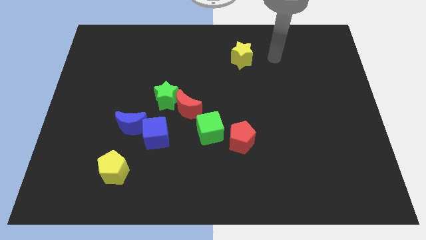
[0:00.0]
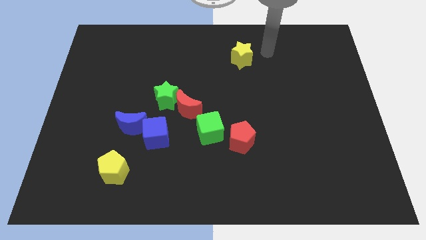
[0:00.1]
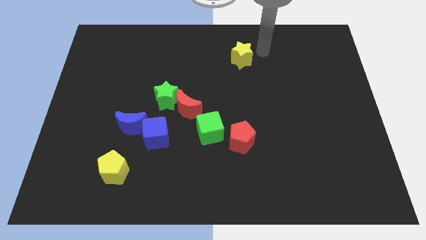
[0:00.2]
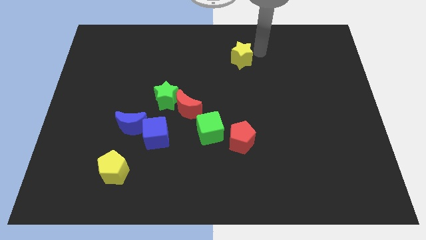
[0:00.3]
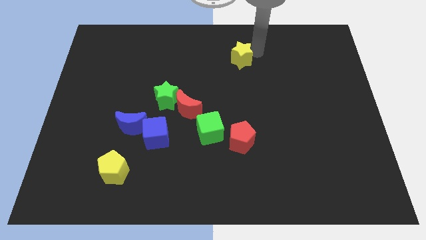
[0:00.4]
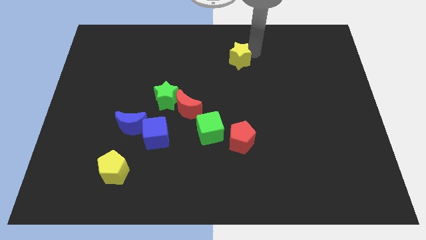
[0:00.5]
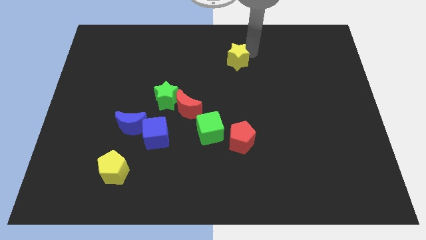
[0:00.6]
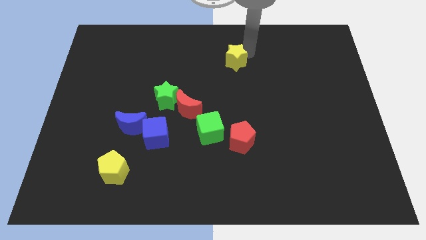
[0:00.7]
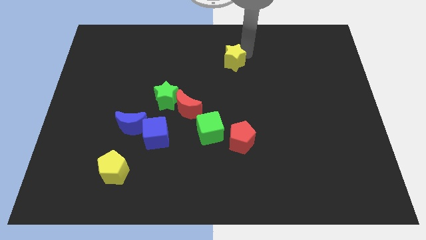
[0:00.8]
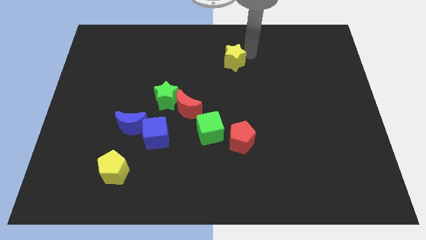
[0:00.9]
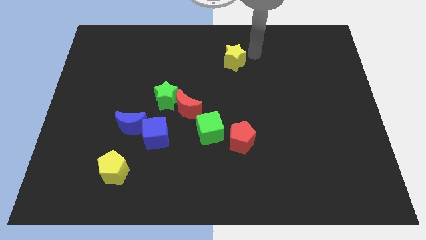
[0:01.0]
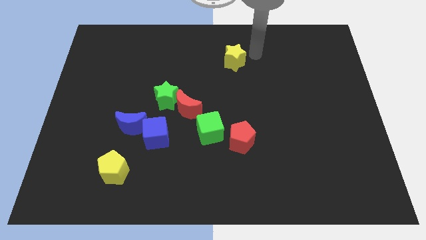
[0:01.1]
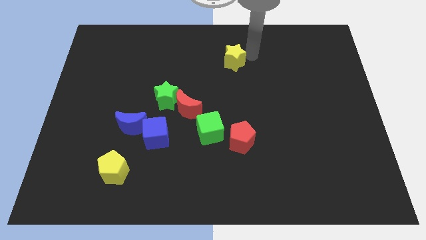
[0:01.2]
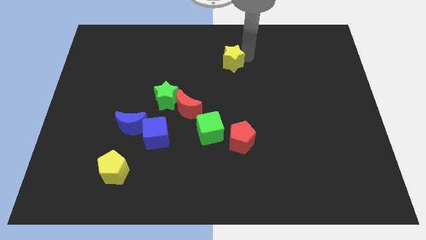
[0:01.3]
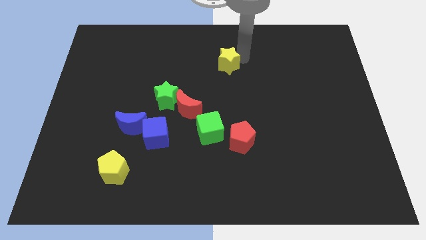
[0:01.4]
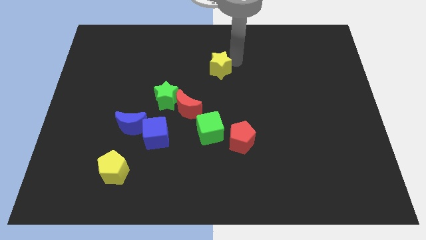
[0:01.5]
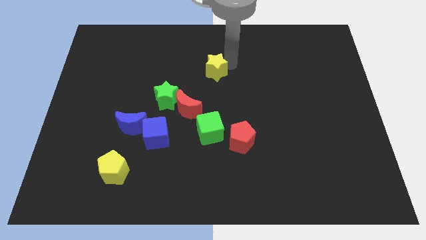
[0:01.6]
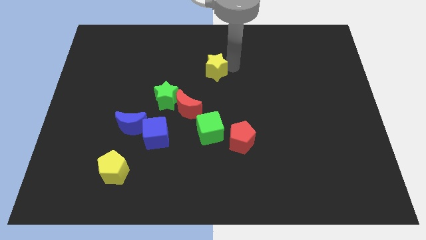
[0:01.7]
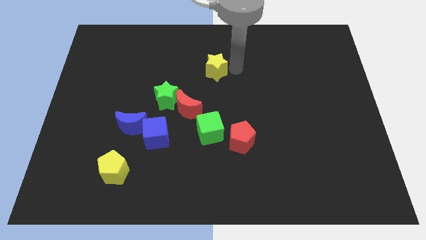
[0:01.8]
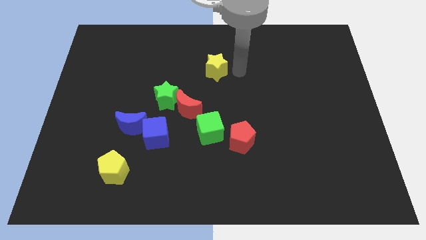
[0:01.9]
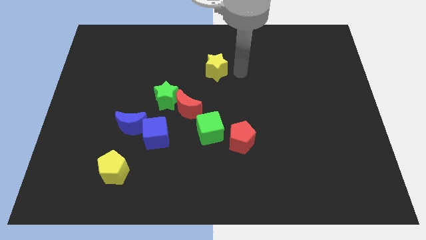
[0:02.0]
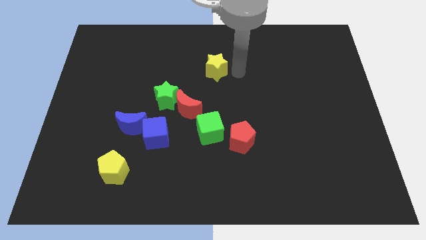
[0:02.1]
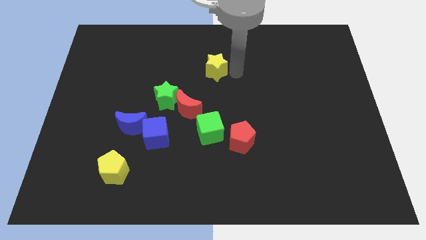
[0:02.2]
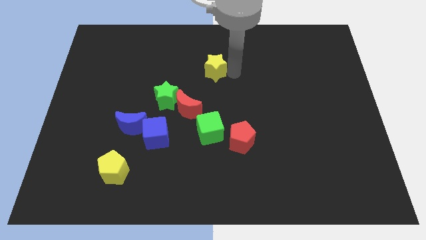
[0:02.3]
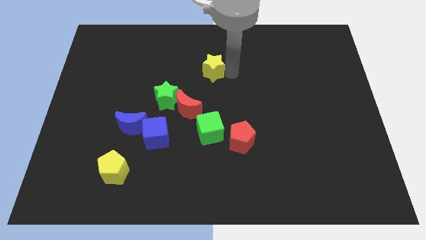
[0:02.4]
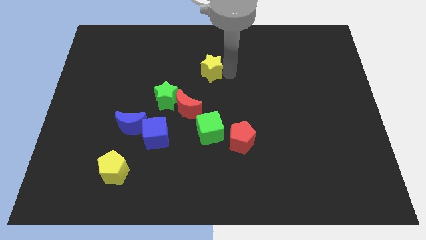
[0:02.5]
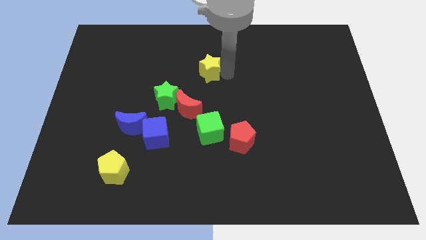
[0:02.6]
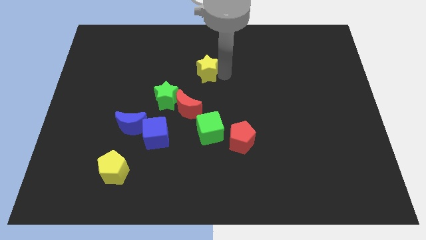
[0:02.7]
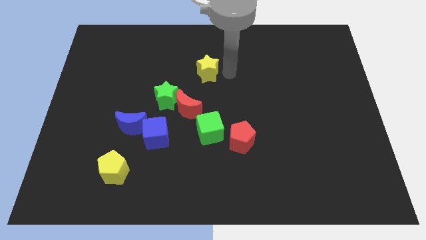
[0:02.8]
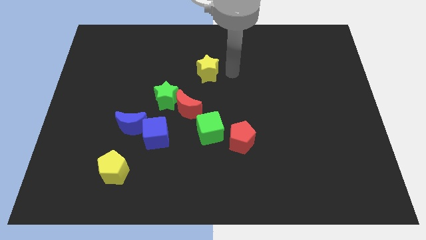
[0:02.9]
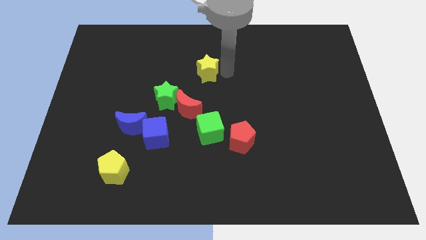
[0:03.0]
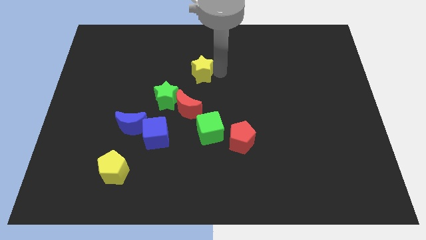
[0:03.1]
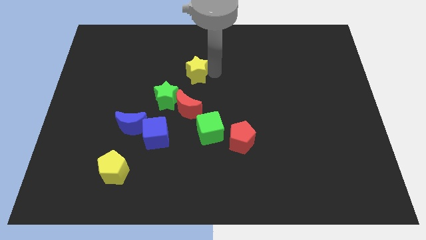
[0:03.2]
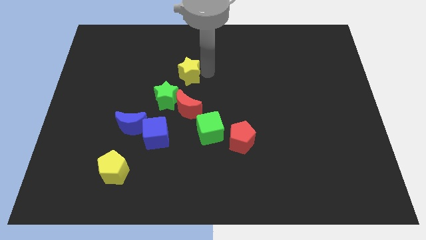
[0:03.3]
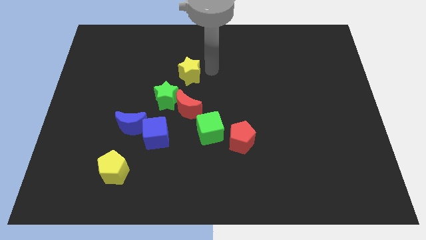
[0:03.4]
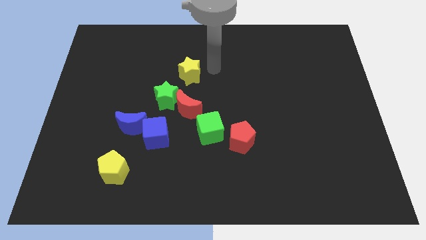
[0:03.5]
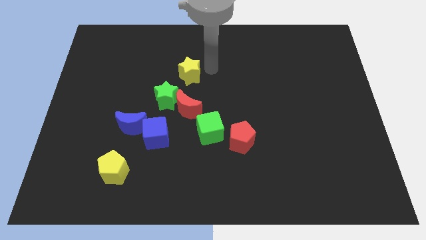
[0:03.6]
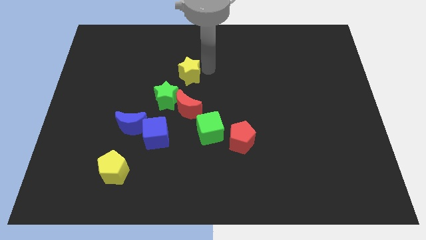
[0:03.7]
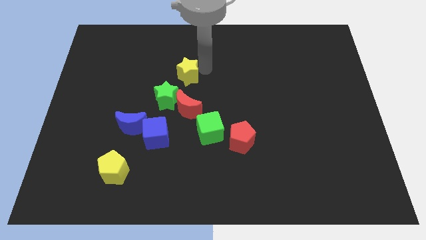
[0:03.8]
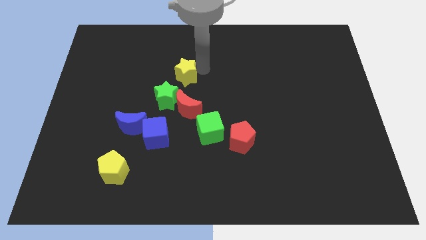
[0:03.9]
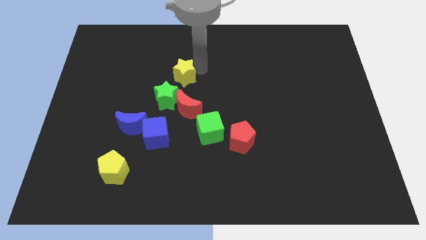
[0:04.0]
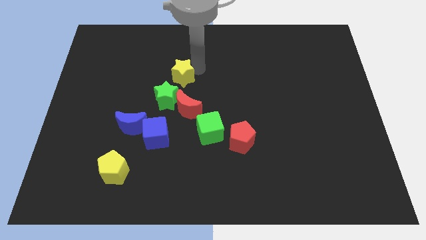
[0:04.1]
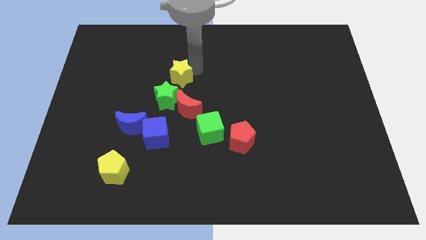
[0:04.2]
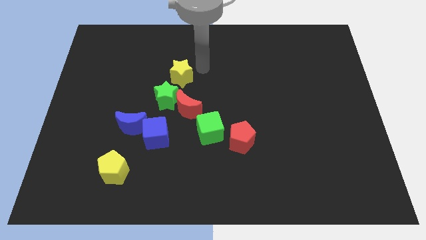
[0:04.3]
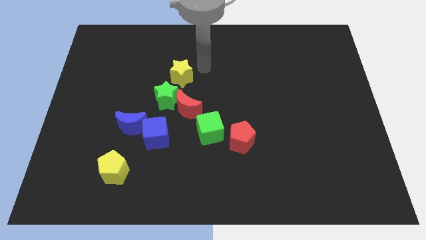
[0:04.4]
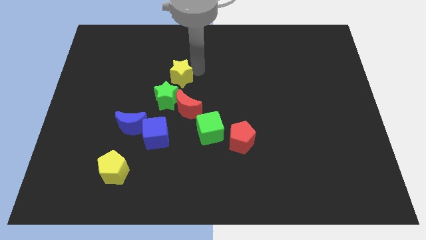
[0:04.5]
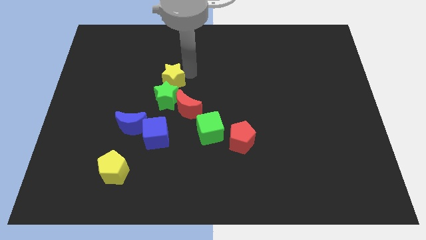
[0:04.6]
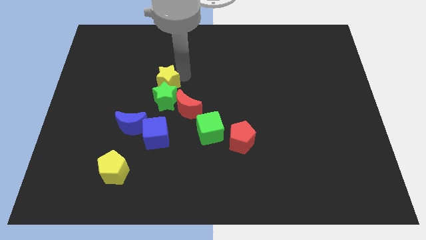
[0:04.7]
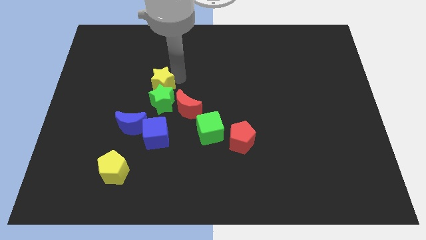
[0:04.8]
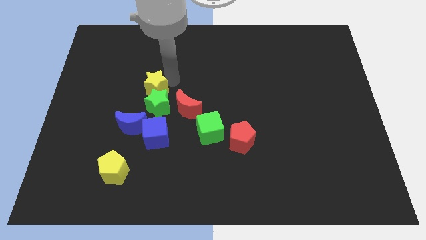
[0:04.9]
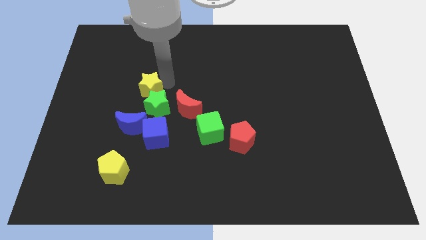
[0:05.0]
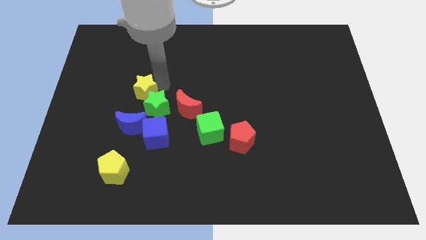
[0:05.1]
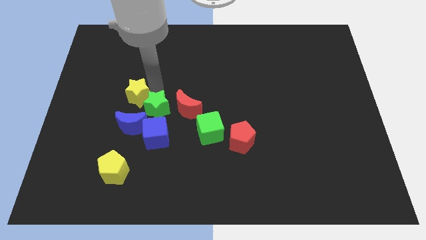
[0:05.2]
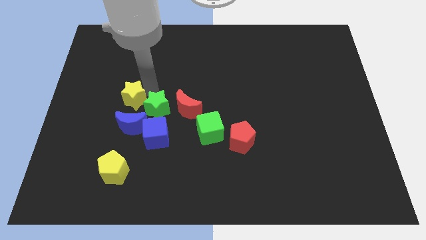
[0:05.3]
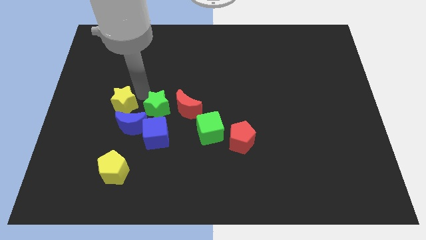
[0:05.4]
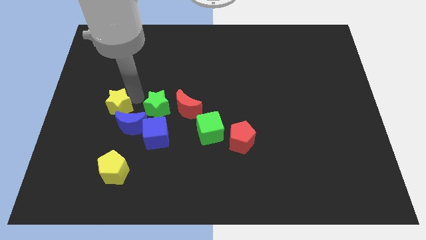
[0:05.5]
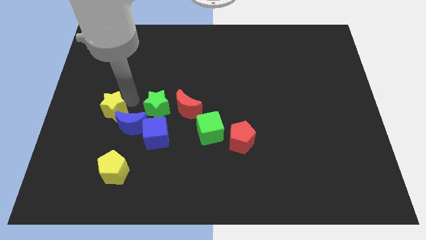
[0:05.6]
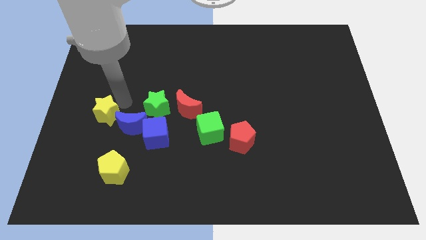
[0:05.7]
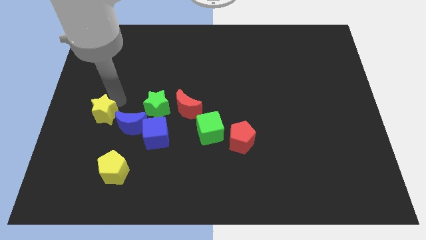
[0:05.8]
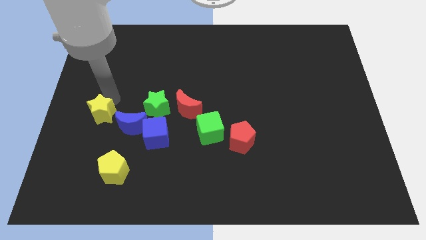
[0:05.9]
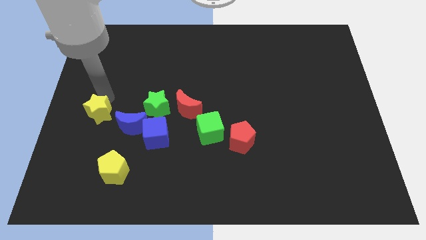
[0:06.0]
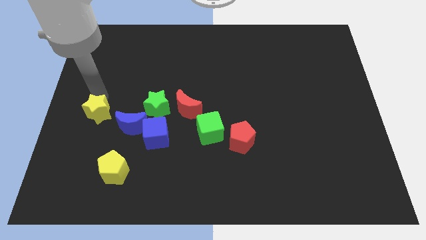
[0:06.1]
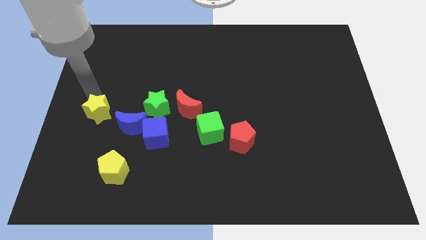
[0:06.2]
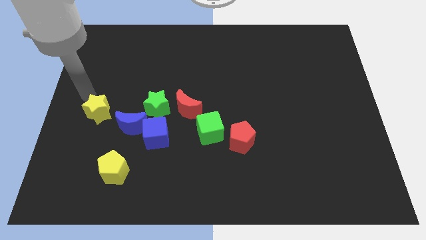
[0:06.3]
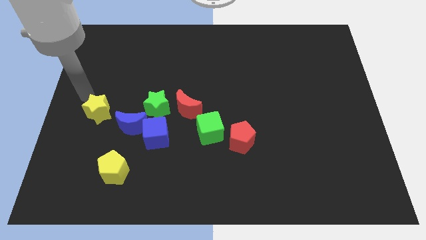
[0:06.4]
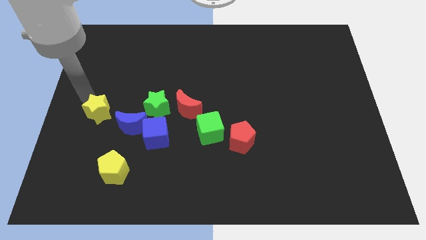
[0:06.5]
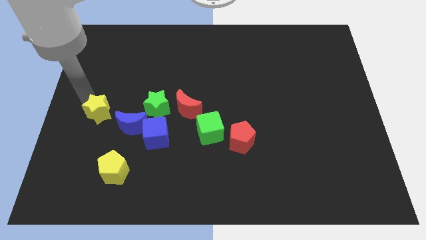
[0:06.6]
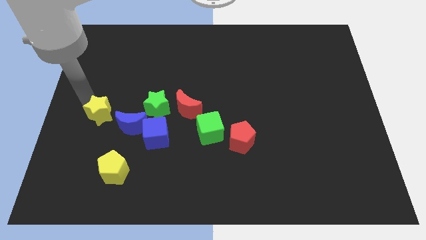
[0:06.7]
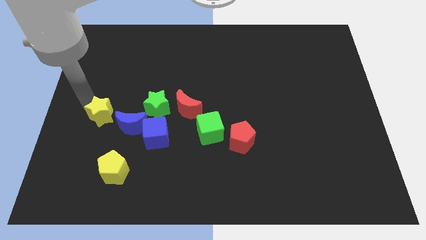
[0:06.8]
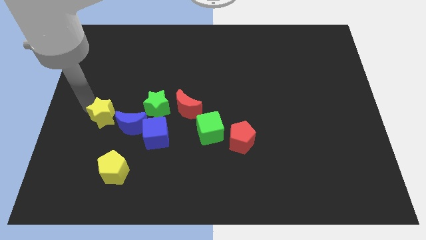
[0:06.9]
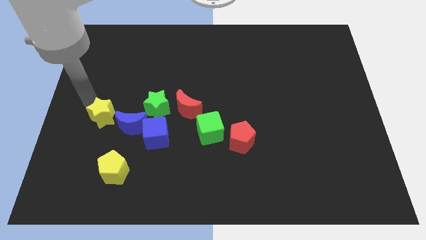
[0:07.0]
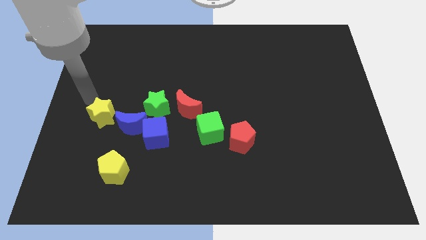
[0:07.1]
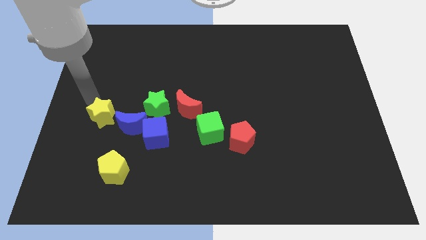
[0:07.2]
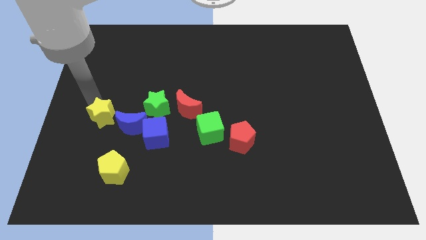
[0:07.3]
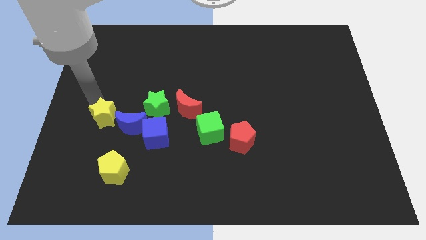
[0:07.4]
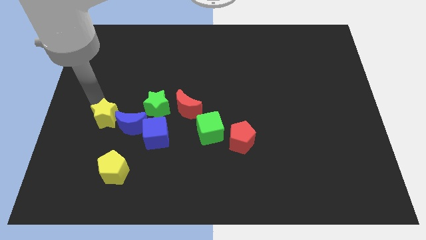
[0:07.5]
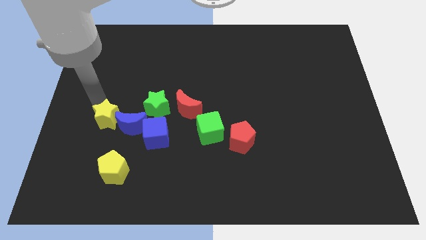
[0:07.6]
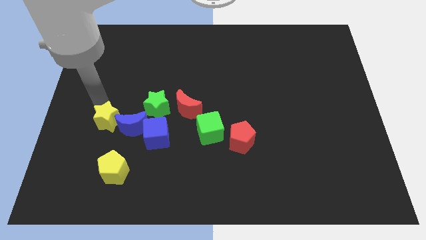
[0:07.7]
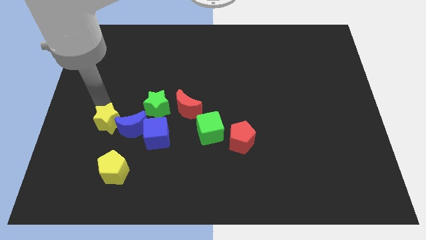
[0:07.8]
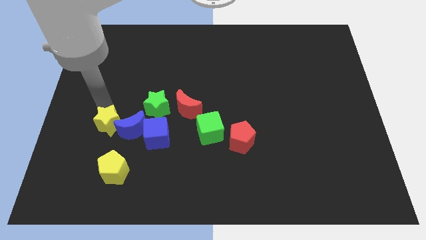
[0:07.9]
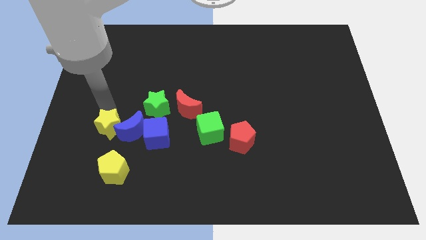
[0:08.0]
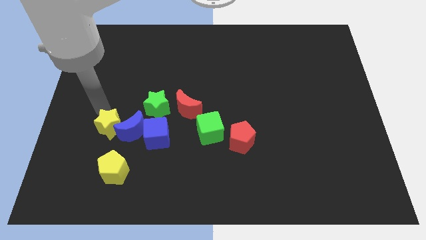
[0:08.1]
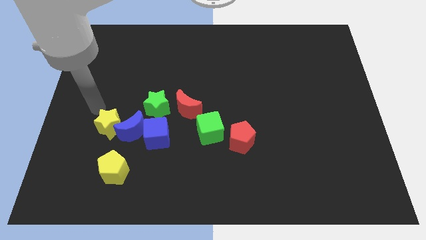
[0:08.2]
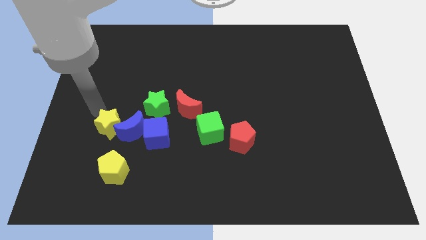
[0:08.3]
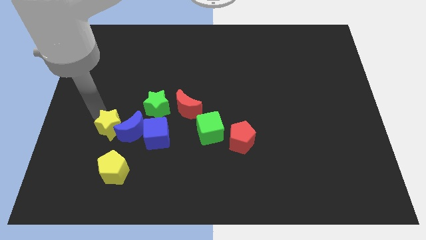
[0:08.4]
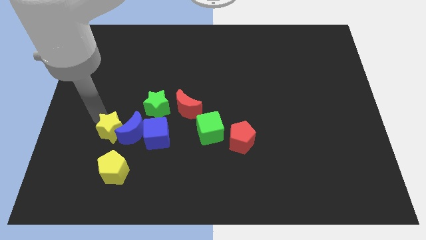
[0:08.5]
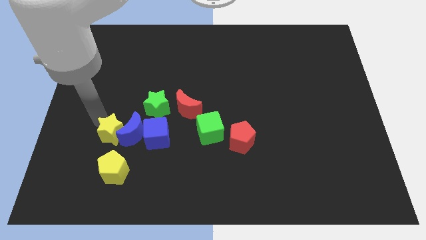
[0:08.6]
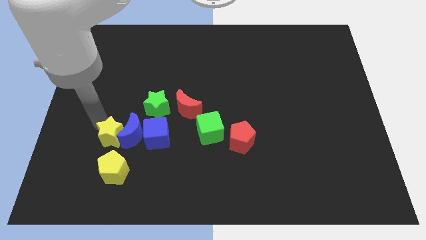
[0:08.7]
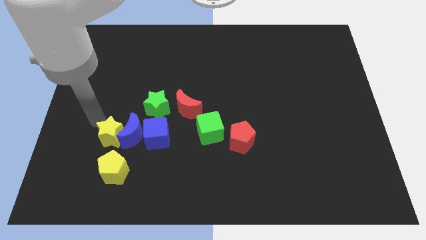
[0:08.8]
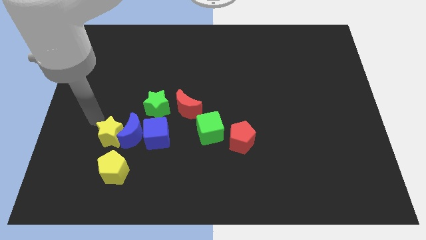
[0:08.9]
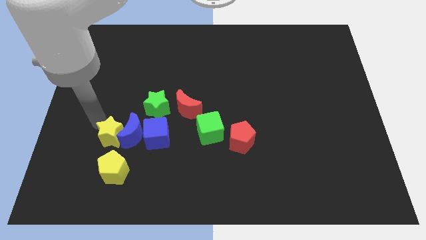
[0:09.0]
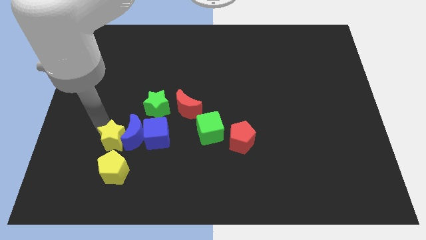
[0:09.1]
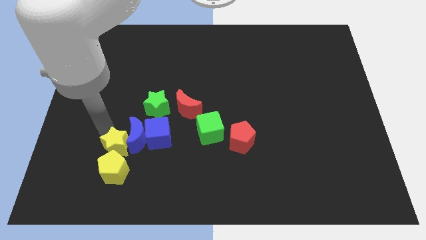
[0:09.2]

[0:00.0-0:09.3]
put the yellow star diagonally down and to the left of the blue cube
